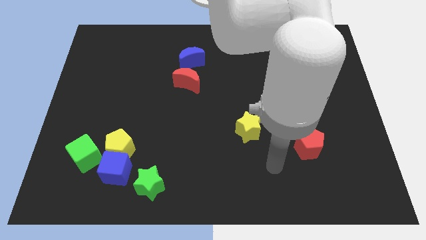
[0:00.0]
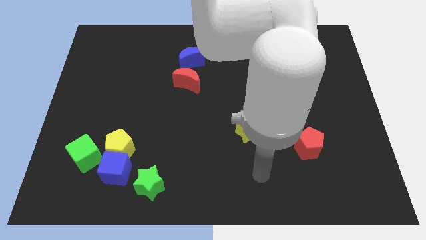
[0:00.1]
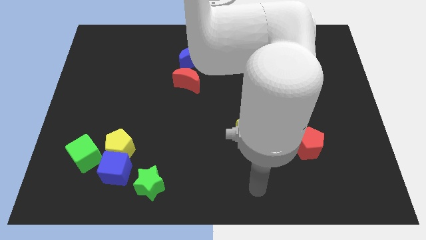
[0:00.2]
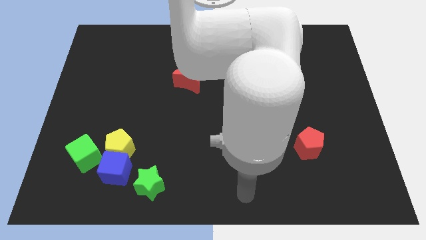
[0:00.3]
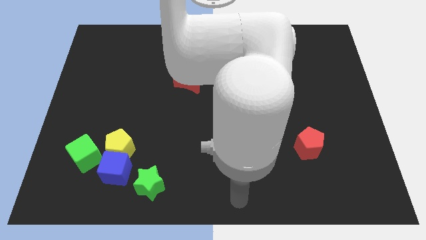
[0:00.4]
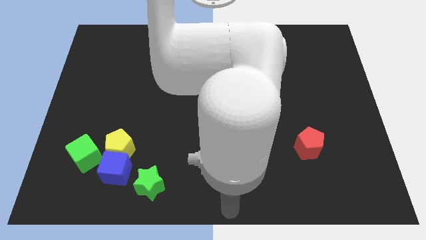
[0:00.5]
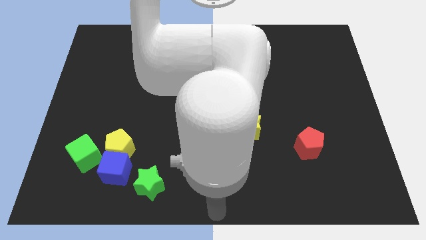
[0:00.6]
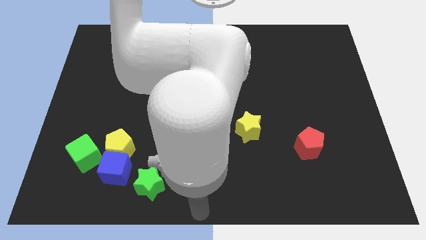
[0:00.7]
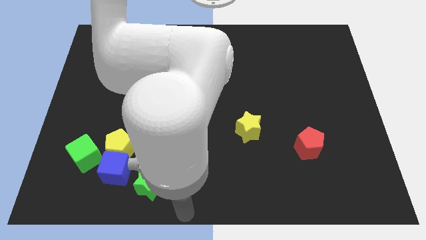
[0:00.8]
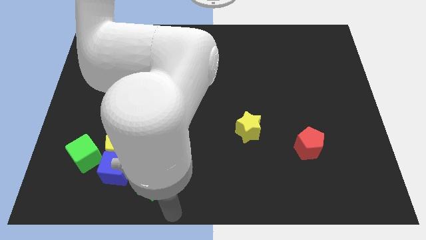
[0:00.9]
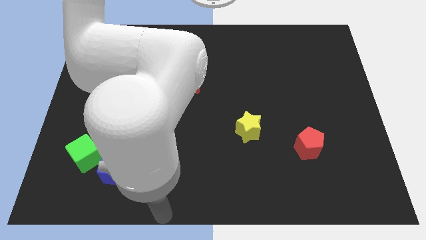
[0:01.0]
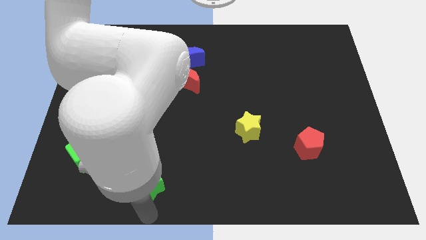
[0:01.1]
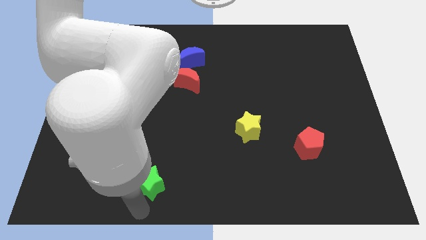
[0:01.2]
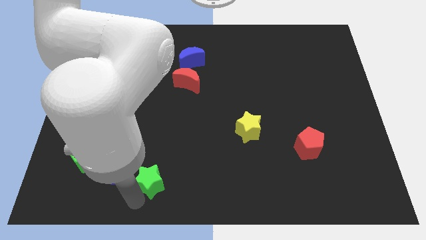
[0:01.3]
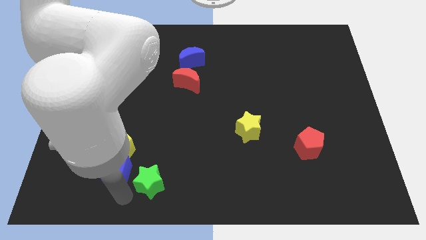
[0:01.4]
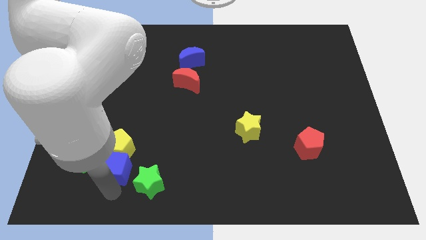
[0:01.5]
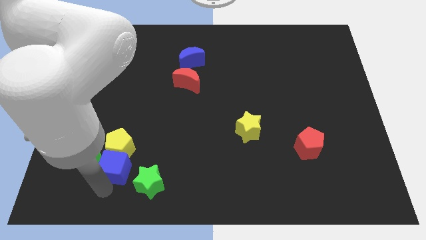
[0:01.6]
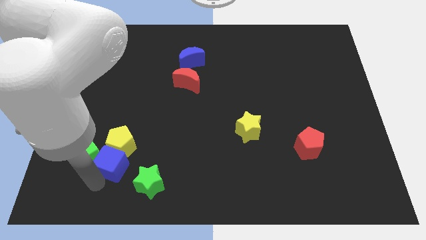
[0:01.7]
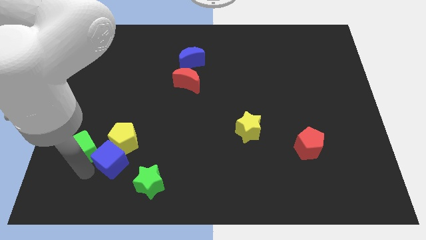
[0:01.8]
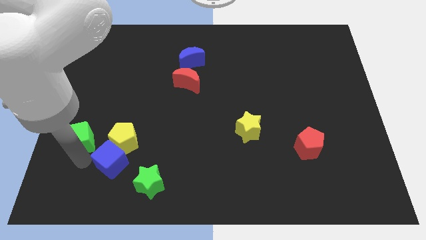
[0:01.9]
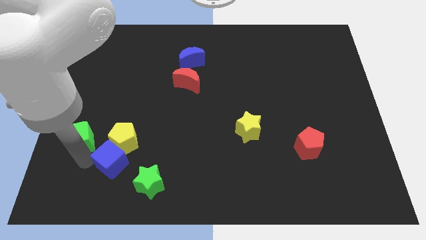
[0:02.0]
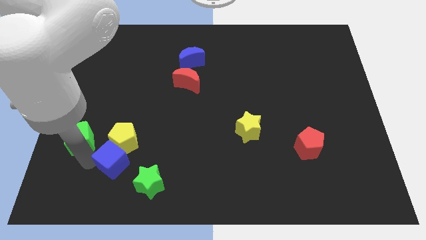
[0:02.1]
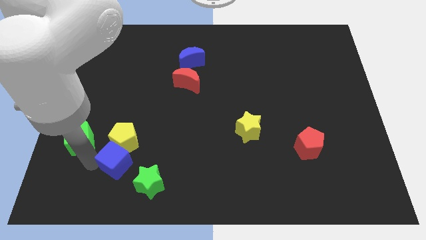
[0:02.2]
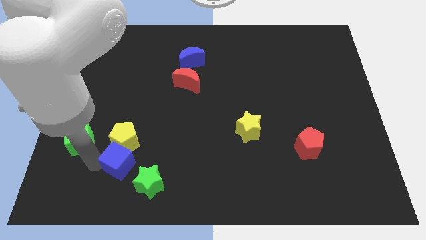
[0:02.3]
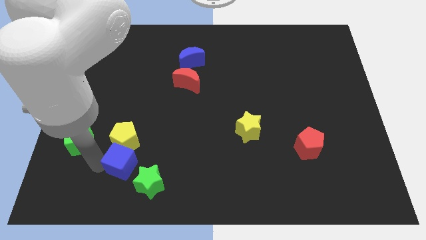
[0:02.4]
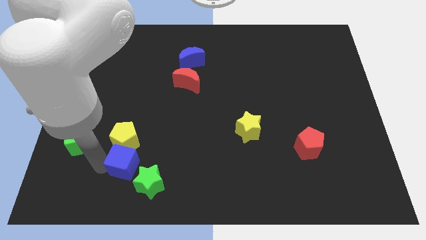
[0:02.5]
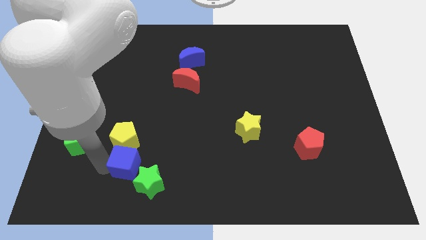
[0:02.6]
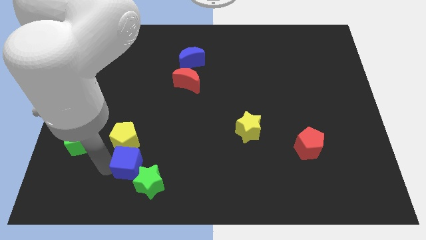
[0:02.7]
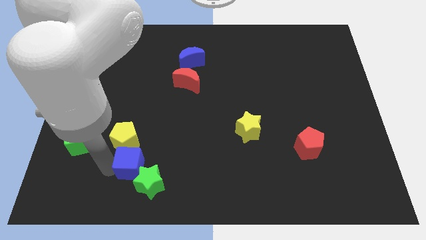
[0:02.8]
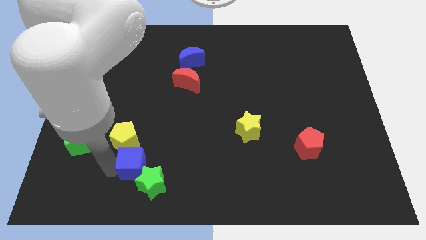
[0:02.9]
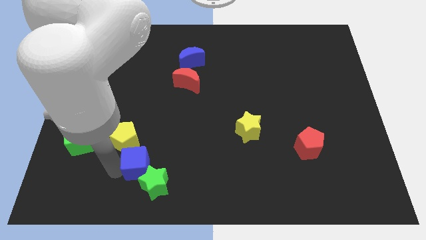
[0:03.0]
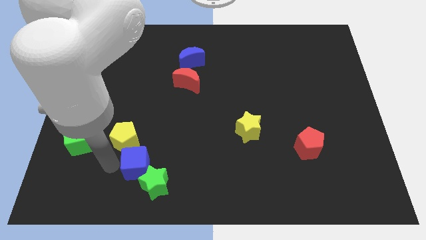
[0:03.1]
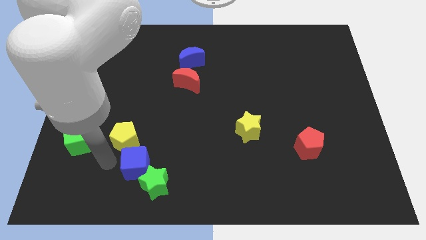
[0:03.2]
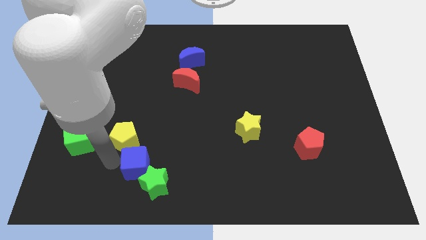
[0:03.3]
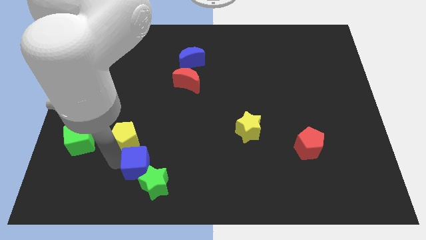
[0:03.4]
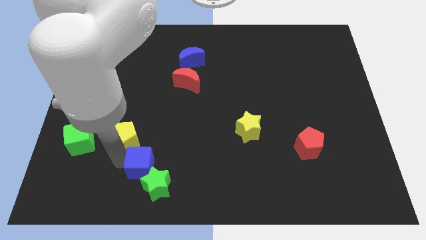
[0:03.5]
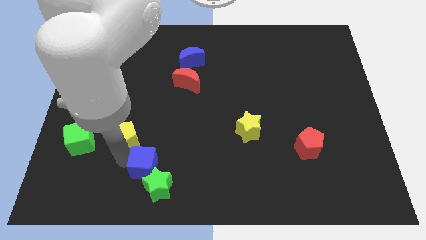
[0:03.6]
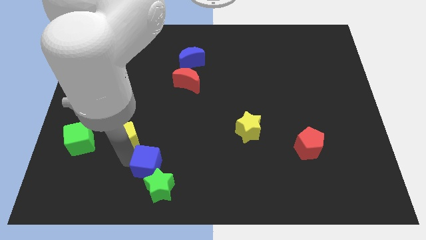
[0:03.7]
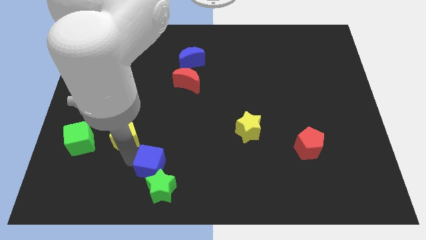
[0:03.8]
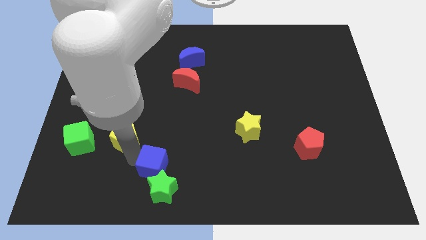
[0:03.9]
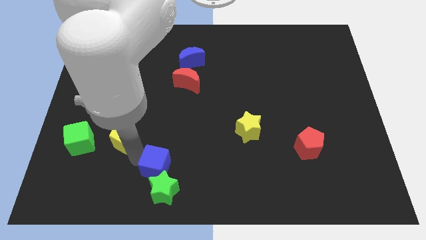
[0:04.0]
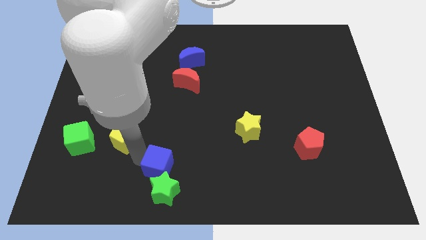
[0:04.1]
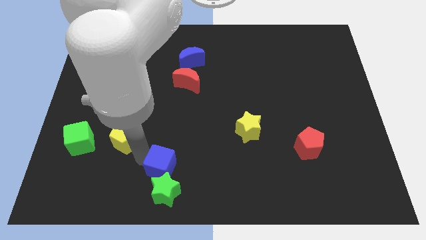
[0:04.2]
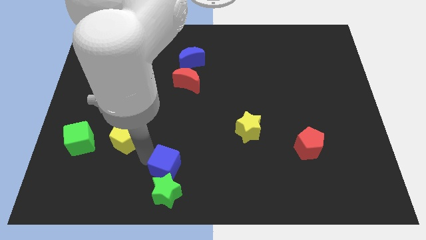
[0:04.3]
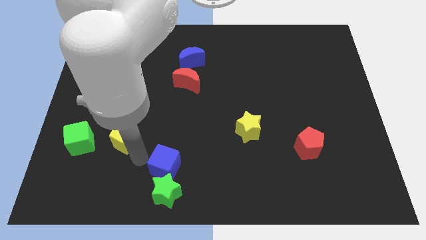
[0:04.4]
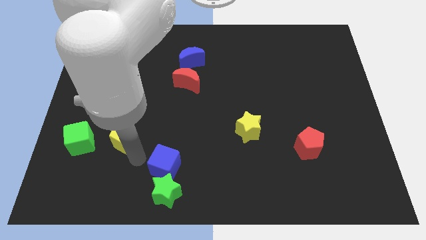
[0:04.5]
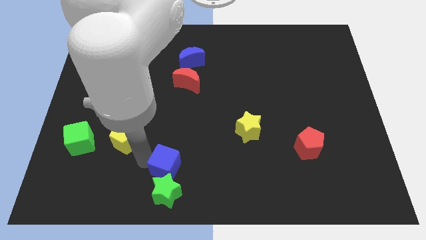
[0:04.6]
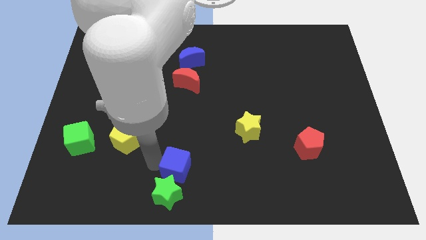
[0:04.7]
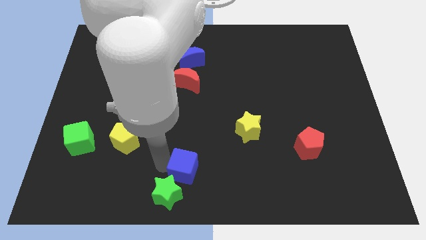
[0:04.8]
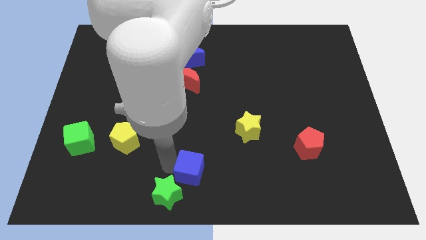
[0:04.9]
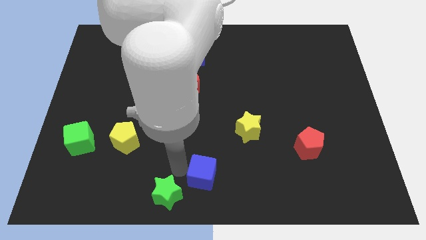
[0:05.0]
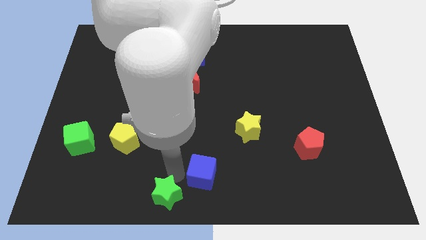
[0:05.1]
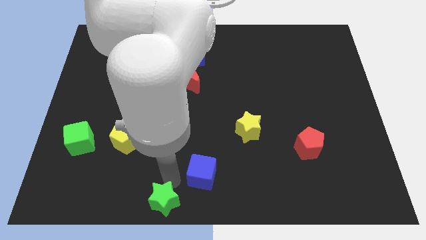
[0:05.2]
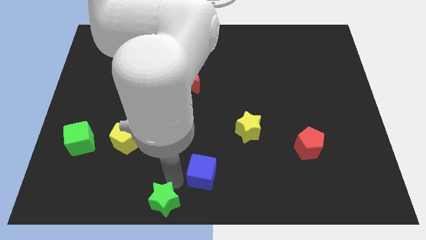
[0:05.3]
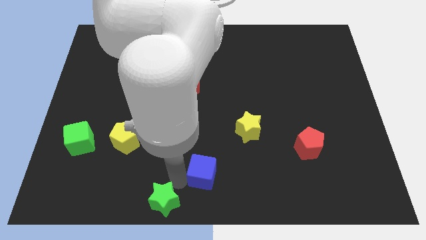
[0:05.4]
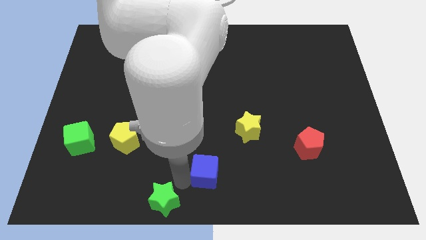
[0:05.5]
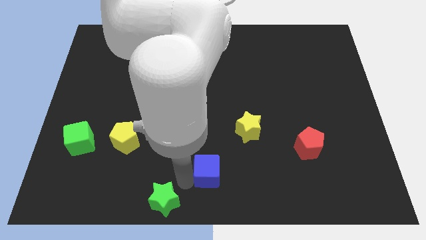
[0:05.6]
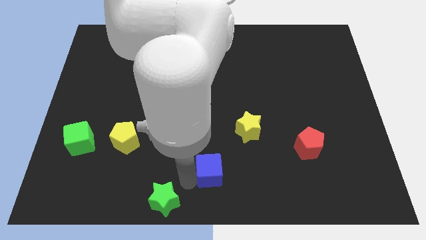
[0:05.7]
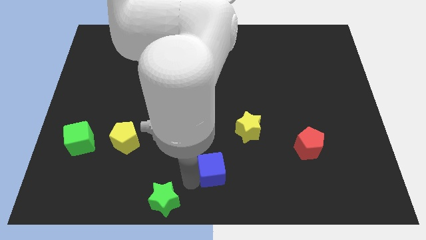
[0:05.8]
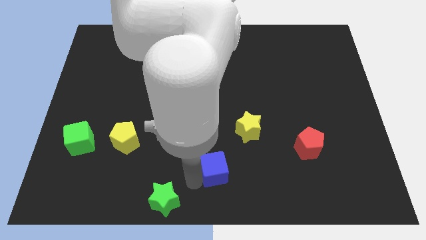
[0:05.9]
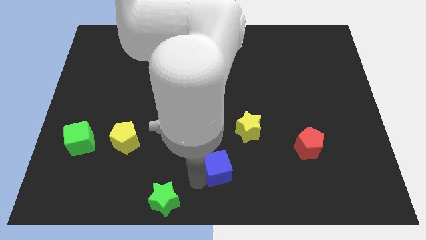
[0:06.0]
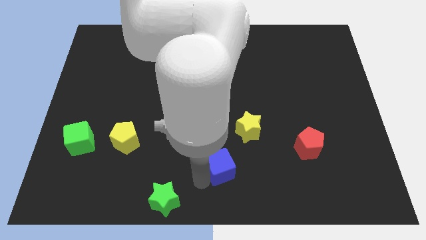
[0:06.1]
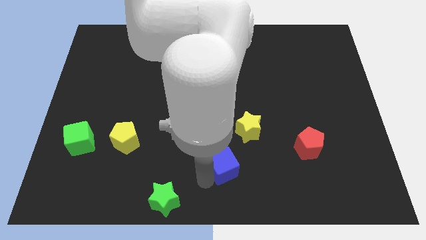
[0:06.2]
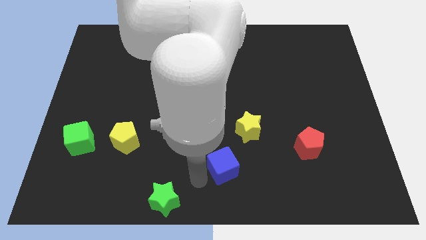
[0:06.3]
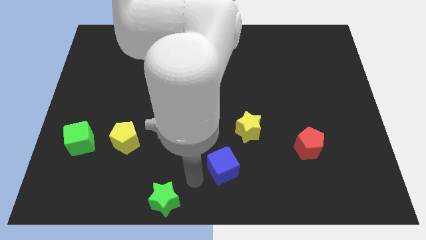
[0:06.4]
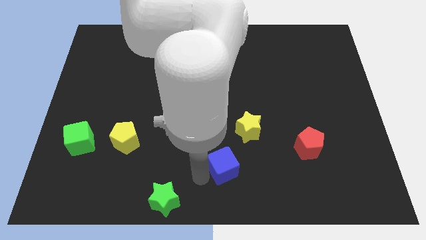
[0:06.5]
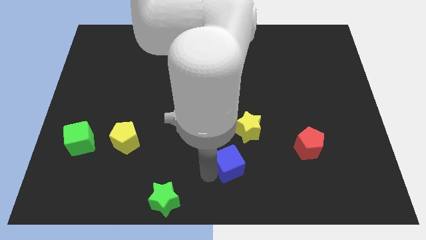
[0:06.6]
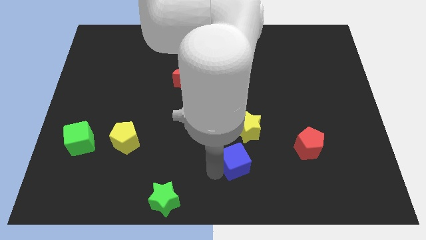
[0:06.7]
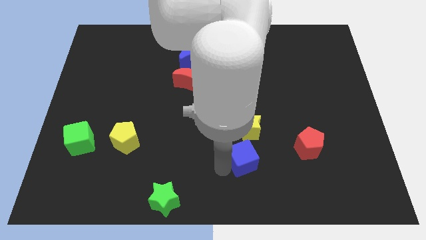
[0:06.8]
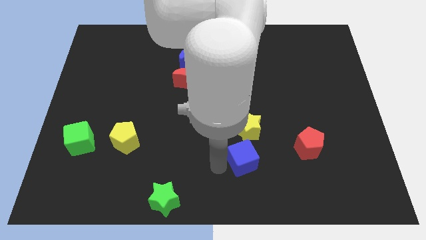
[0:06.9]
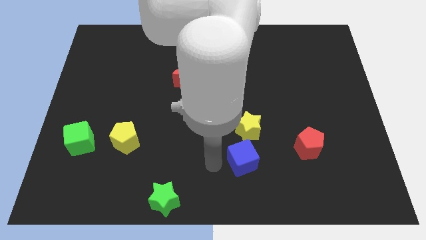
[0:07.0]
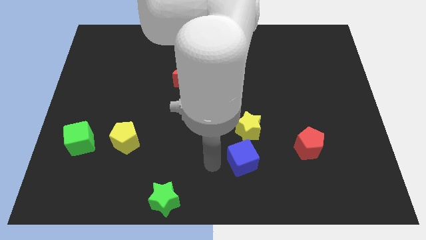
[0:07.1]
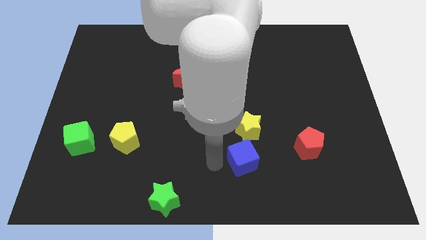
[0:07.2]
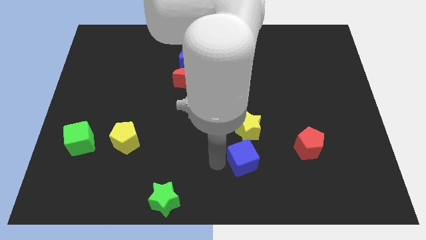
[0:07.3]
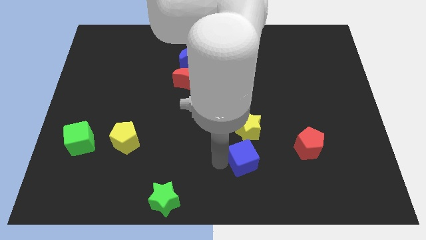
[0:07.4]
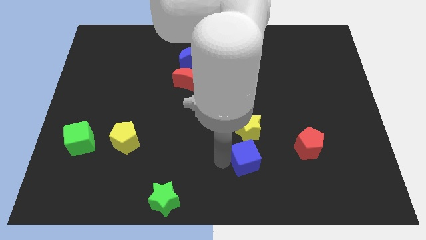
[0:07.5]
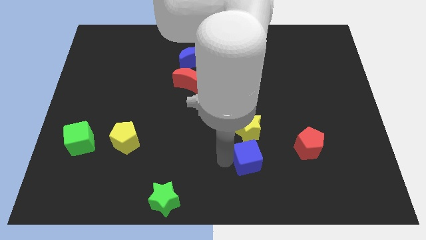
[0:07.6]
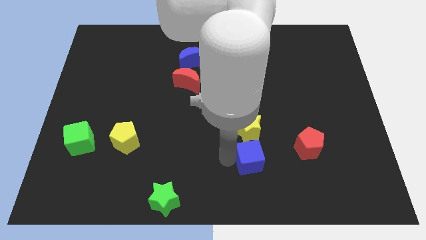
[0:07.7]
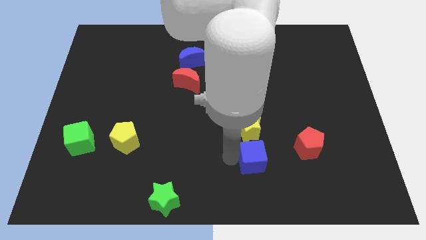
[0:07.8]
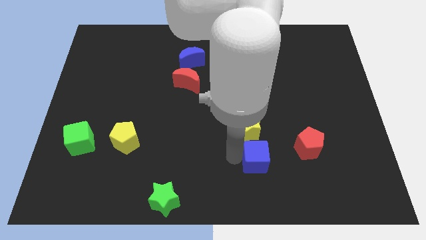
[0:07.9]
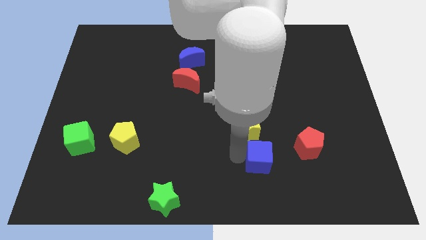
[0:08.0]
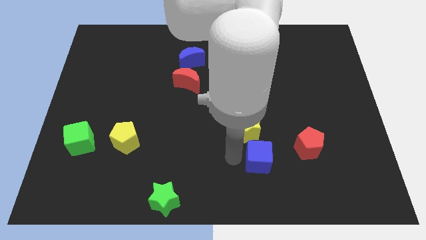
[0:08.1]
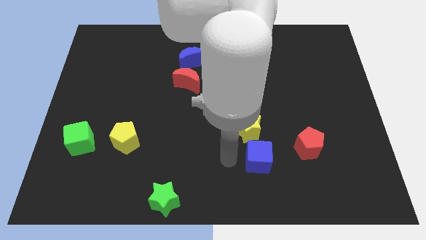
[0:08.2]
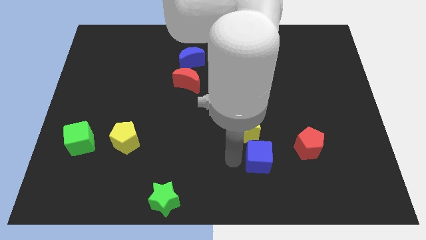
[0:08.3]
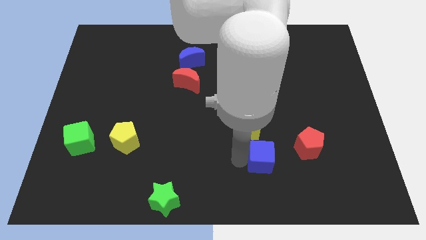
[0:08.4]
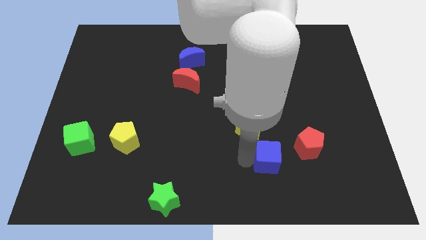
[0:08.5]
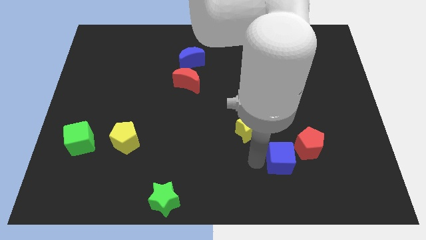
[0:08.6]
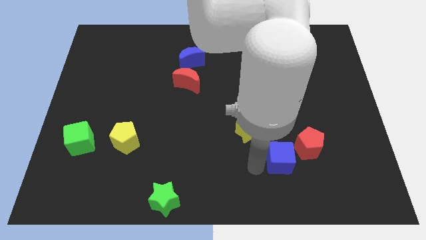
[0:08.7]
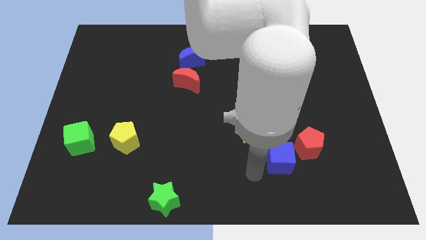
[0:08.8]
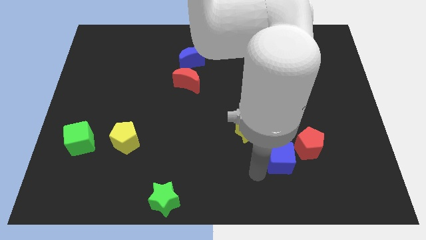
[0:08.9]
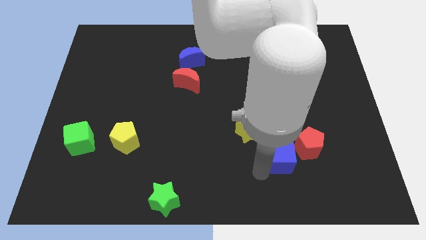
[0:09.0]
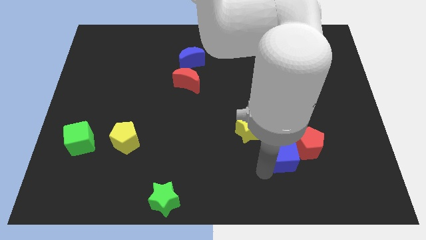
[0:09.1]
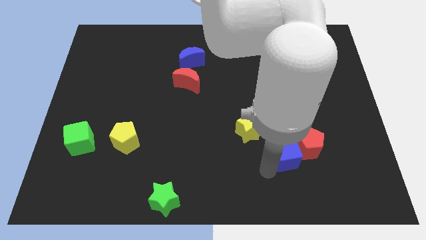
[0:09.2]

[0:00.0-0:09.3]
move the blue cube next to the red pentagon
